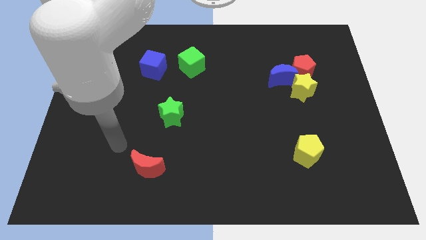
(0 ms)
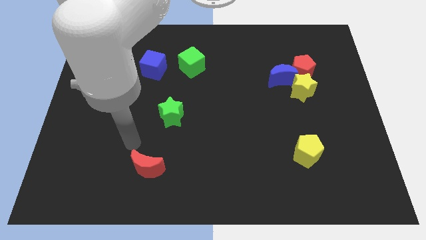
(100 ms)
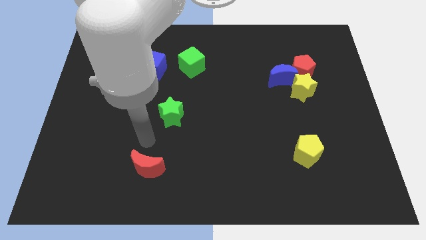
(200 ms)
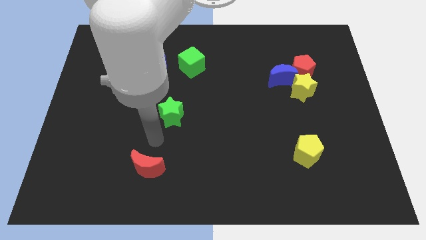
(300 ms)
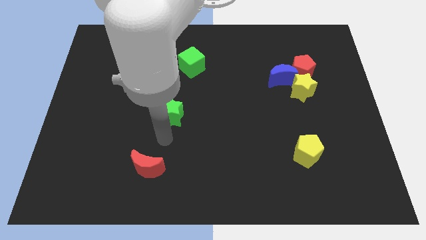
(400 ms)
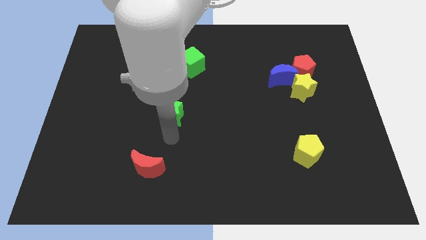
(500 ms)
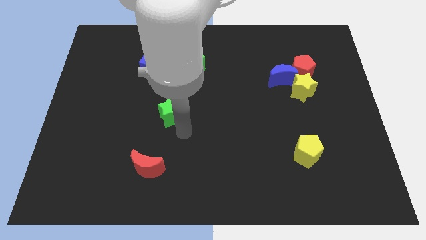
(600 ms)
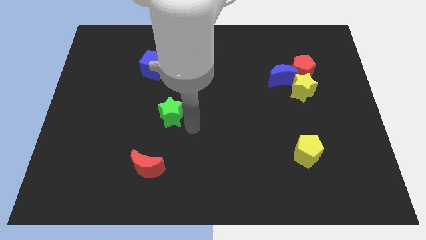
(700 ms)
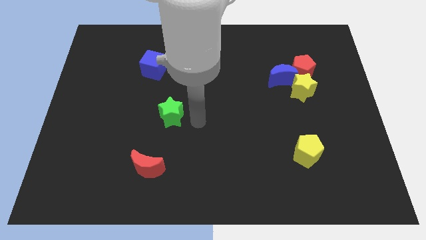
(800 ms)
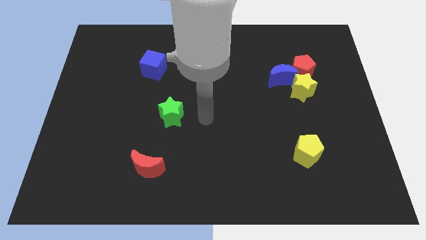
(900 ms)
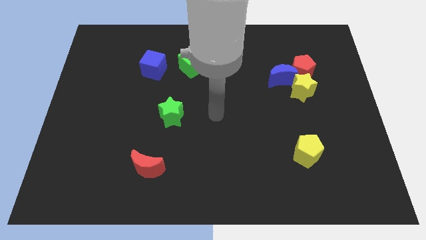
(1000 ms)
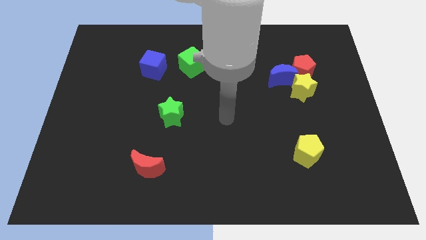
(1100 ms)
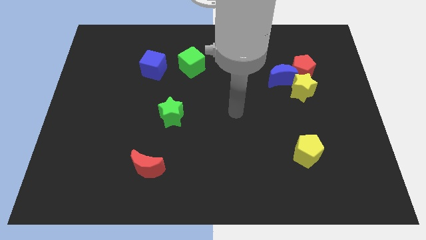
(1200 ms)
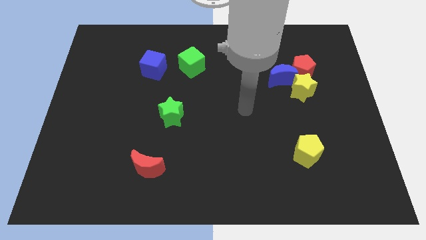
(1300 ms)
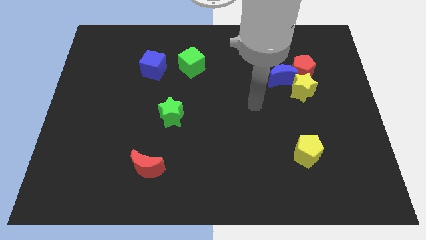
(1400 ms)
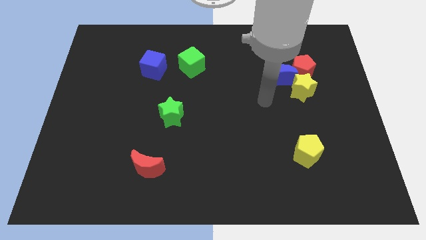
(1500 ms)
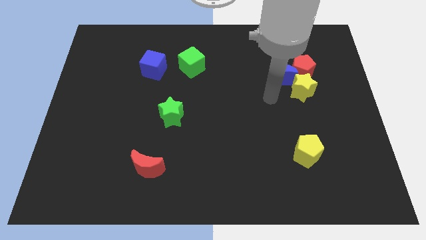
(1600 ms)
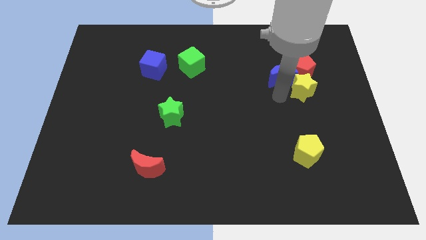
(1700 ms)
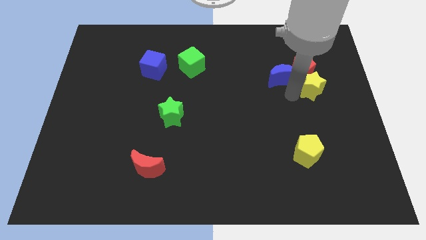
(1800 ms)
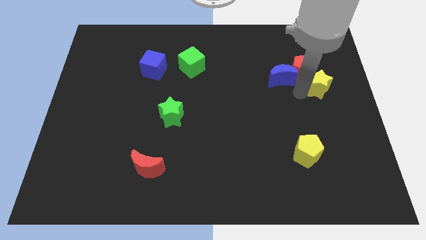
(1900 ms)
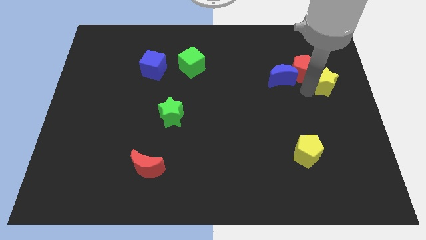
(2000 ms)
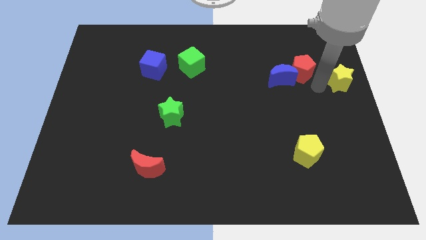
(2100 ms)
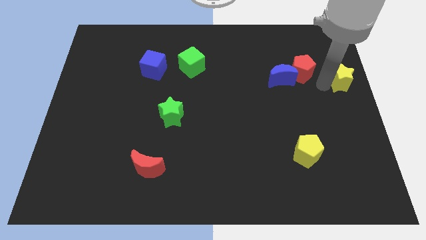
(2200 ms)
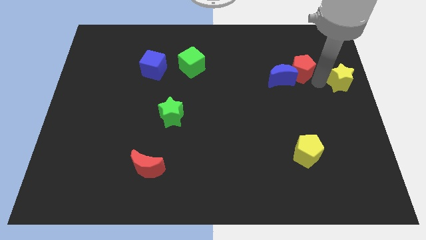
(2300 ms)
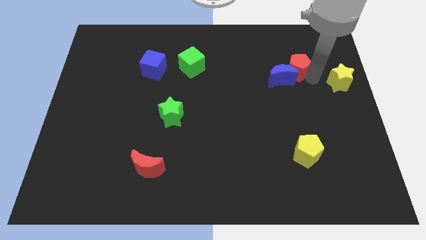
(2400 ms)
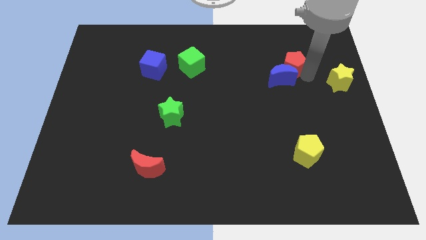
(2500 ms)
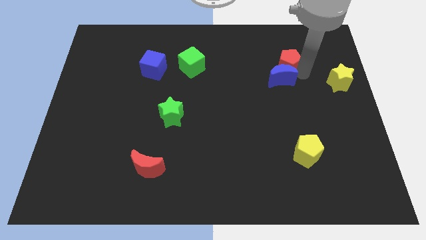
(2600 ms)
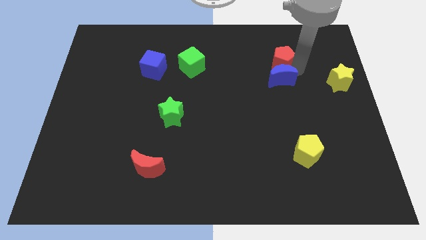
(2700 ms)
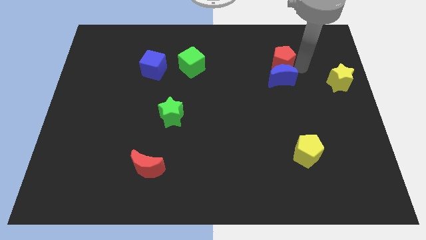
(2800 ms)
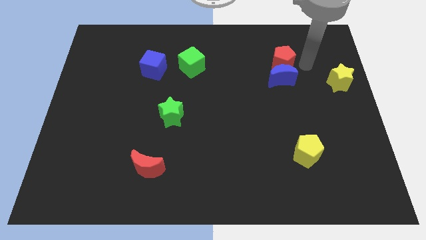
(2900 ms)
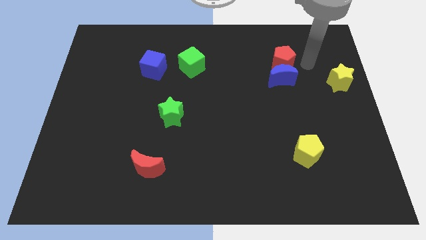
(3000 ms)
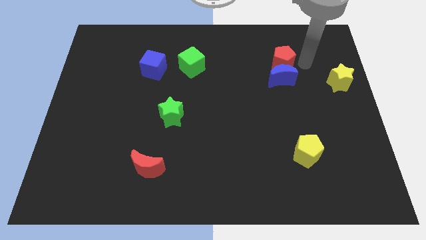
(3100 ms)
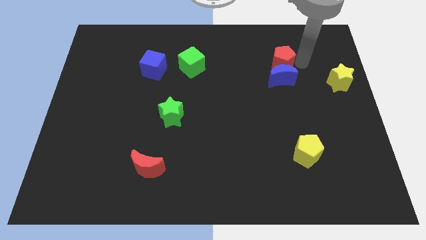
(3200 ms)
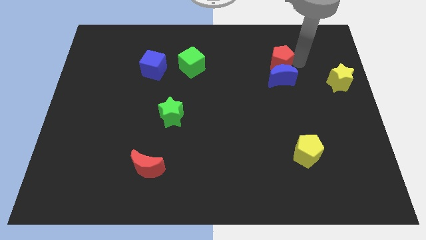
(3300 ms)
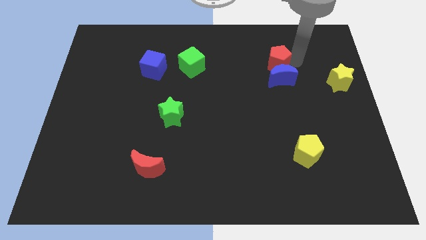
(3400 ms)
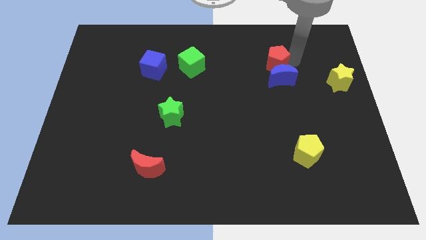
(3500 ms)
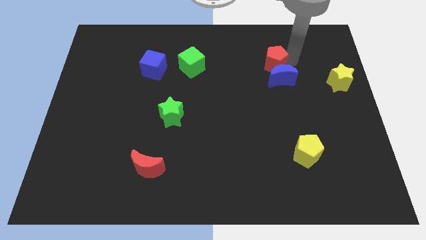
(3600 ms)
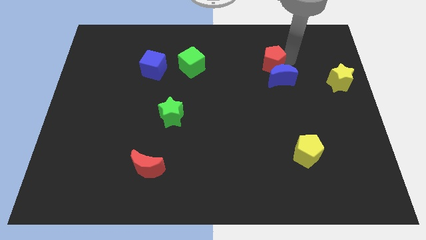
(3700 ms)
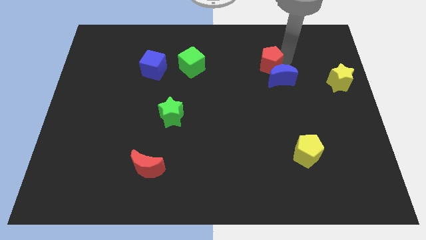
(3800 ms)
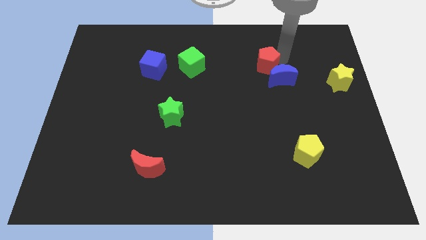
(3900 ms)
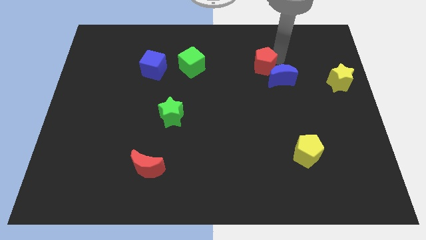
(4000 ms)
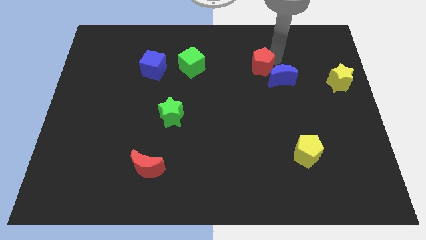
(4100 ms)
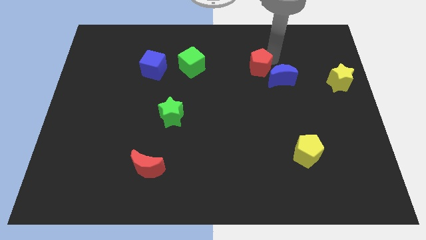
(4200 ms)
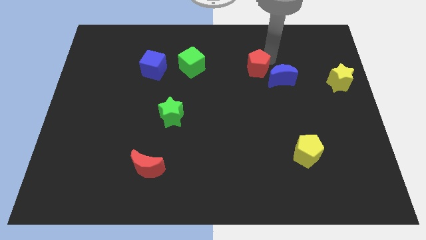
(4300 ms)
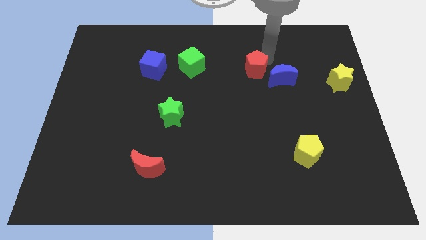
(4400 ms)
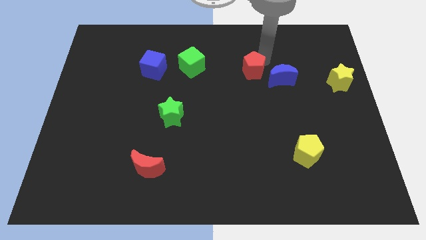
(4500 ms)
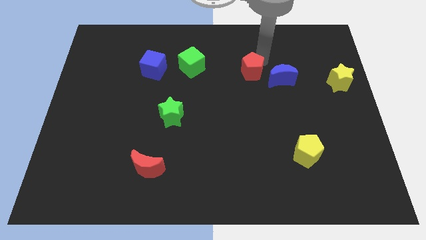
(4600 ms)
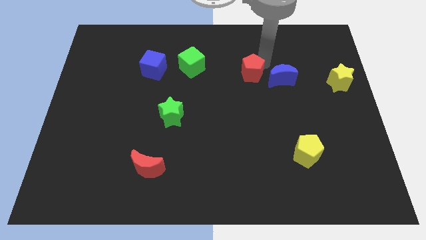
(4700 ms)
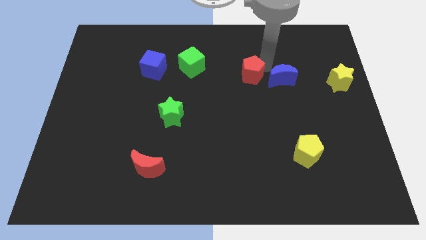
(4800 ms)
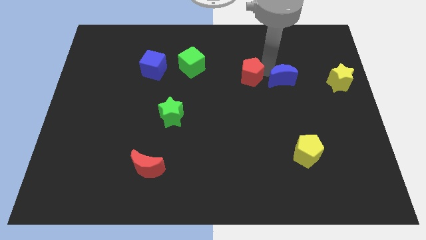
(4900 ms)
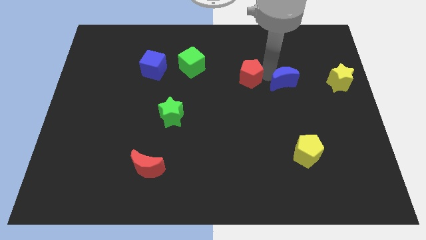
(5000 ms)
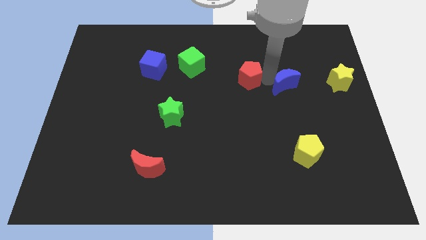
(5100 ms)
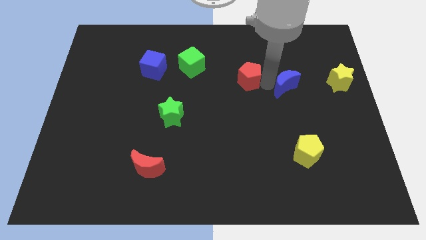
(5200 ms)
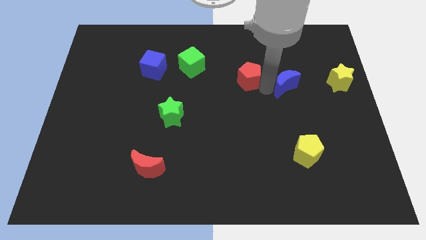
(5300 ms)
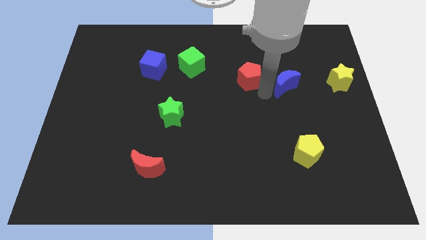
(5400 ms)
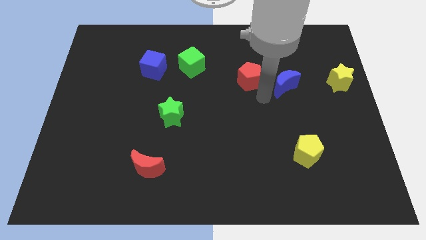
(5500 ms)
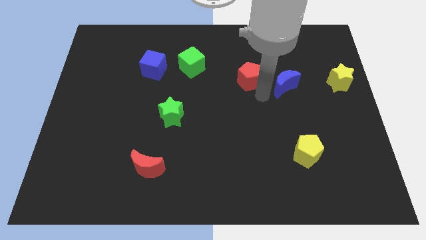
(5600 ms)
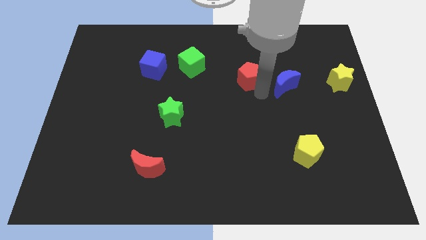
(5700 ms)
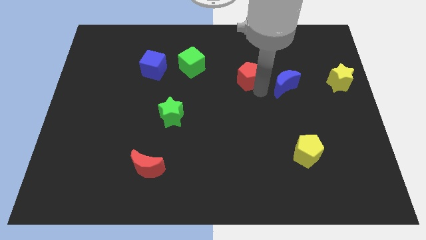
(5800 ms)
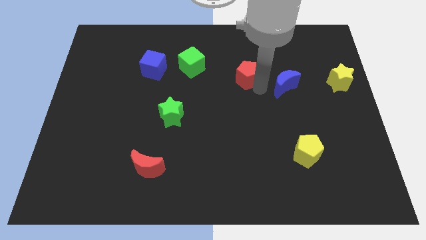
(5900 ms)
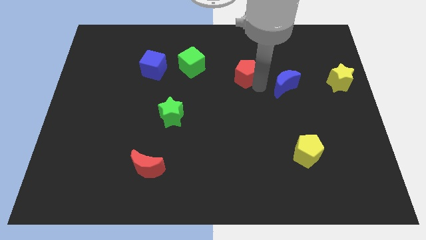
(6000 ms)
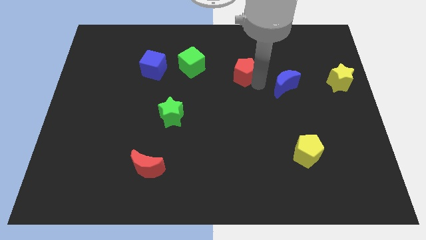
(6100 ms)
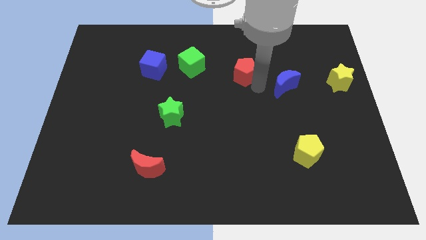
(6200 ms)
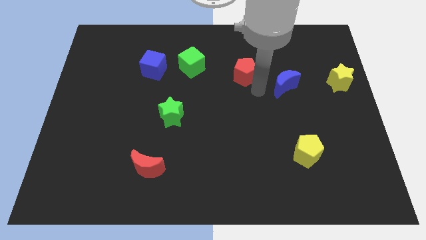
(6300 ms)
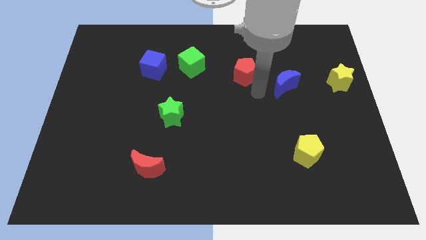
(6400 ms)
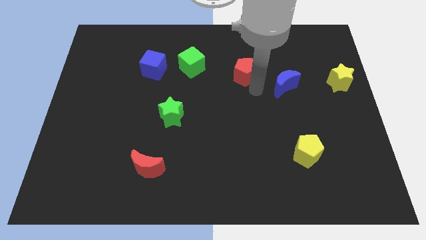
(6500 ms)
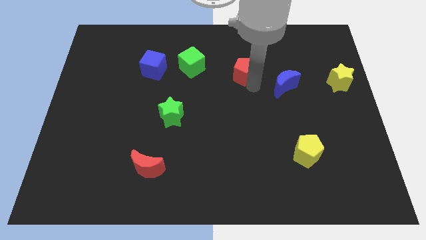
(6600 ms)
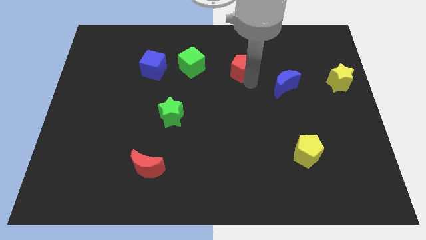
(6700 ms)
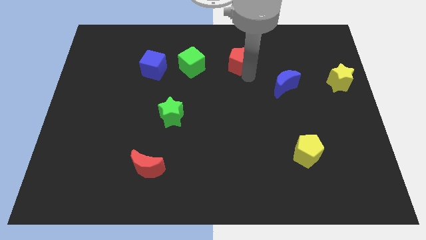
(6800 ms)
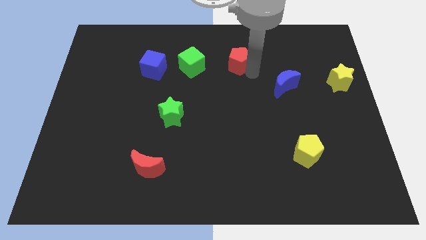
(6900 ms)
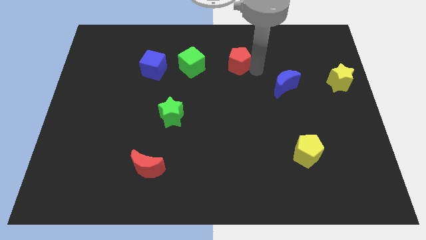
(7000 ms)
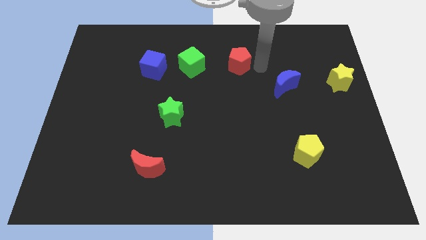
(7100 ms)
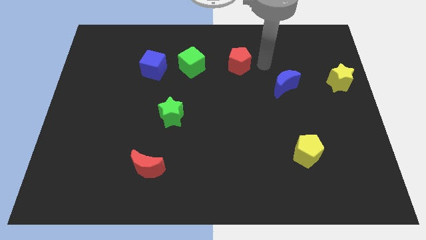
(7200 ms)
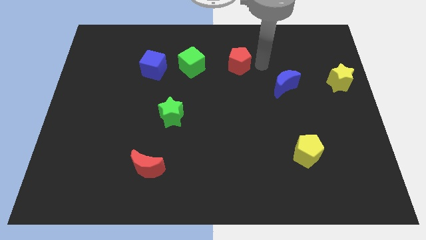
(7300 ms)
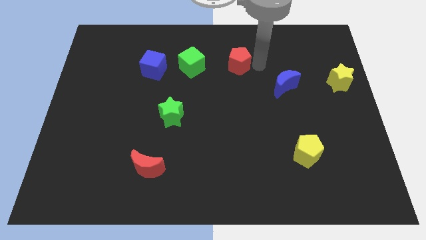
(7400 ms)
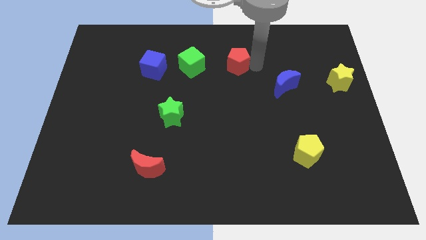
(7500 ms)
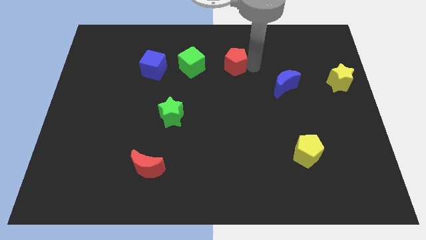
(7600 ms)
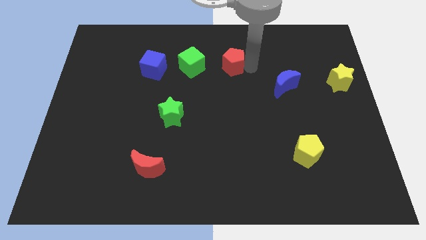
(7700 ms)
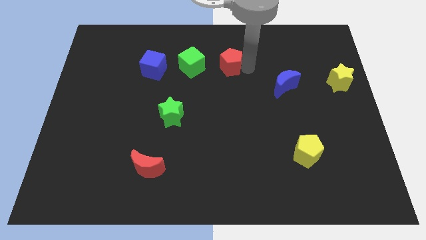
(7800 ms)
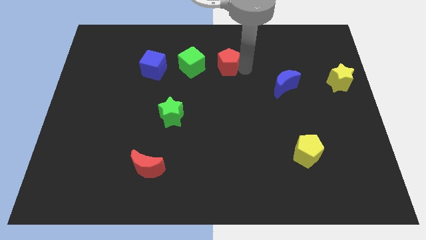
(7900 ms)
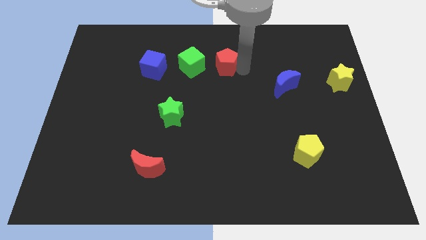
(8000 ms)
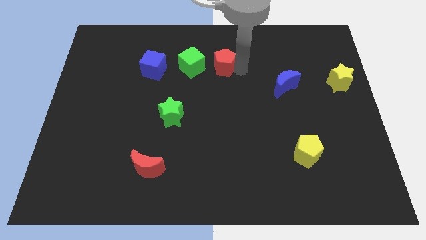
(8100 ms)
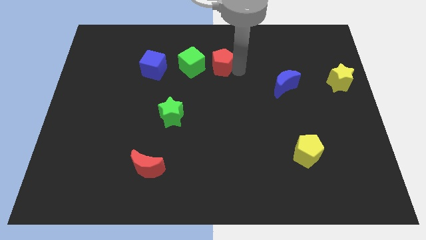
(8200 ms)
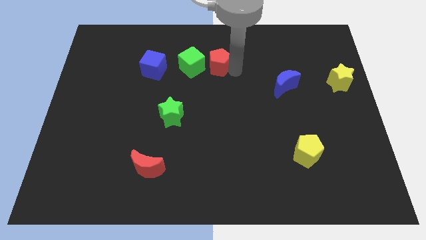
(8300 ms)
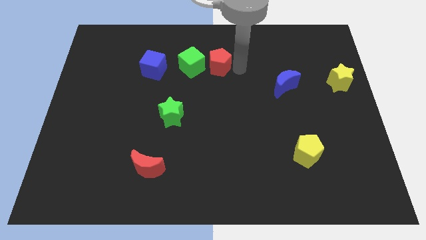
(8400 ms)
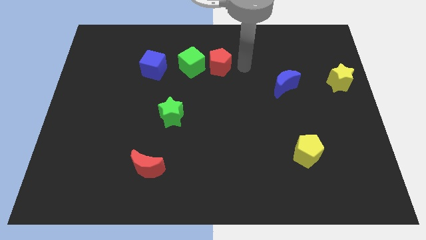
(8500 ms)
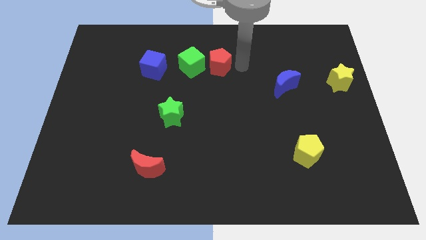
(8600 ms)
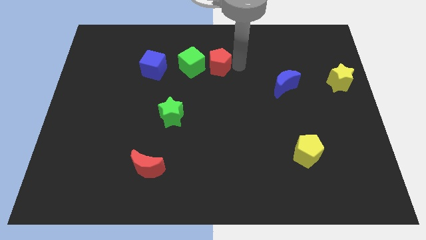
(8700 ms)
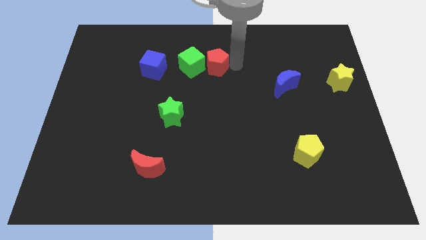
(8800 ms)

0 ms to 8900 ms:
slide the red pentagon next to the green cube
